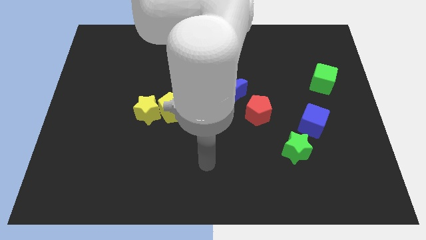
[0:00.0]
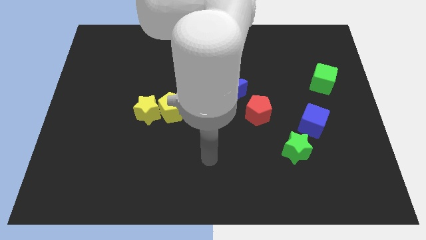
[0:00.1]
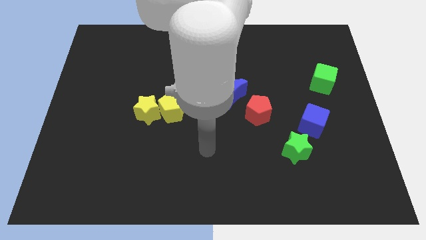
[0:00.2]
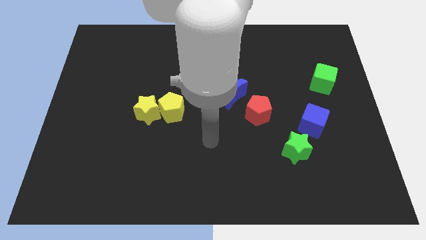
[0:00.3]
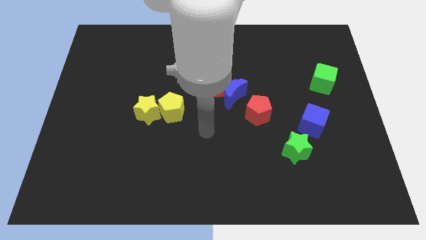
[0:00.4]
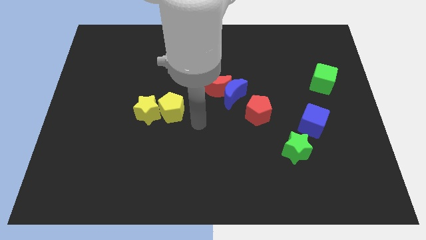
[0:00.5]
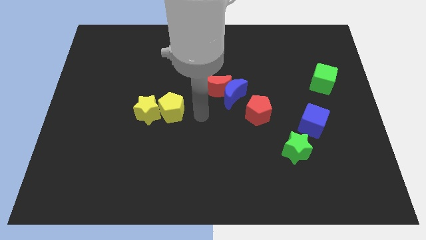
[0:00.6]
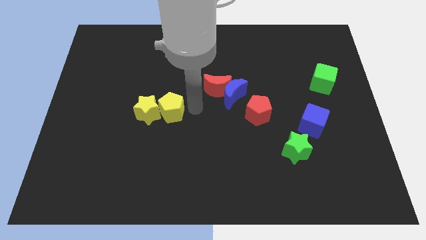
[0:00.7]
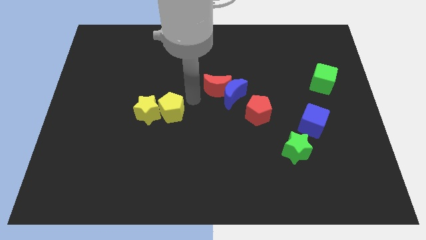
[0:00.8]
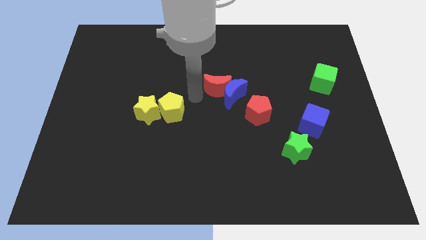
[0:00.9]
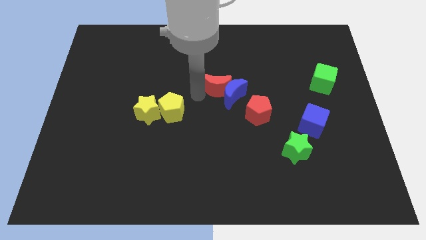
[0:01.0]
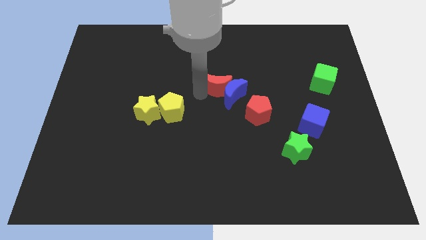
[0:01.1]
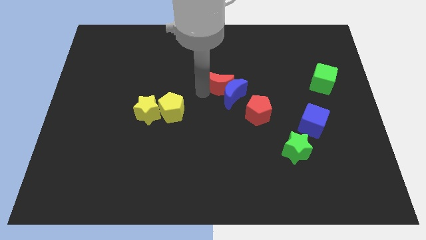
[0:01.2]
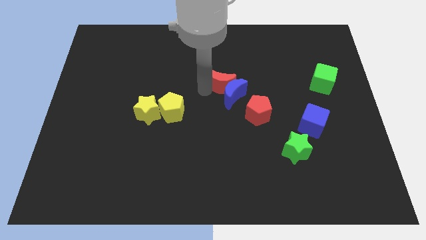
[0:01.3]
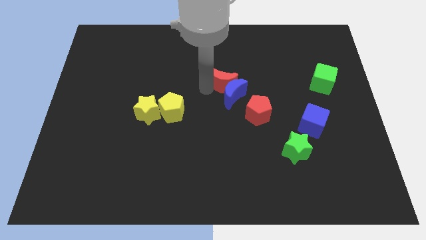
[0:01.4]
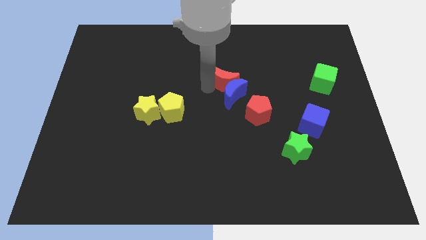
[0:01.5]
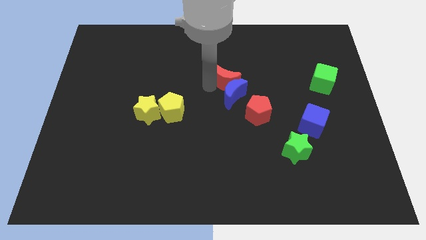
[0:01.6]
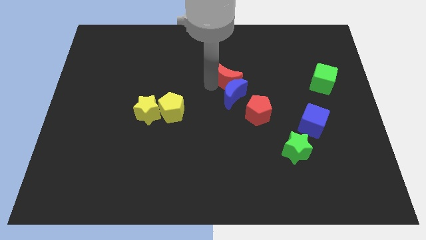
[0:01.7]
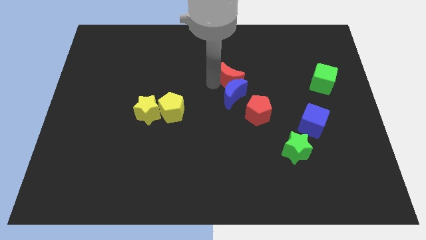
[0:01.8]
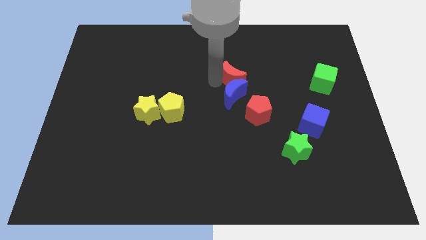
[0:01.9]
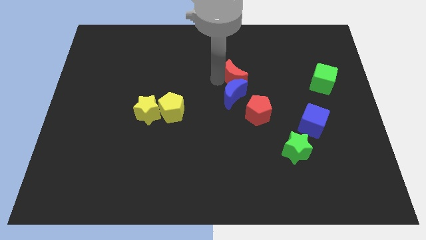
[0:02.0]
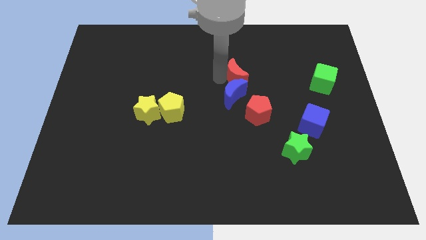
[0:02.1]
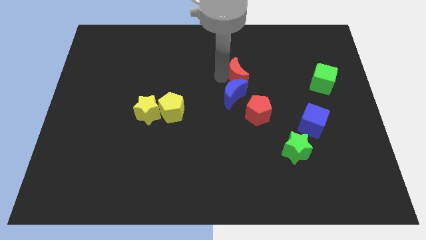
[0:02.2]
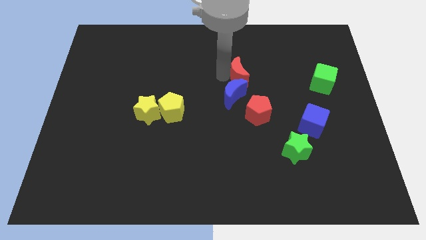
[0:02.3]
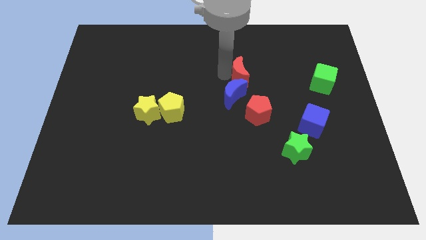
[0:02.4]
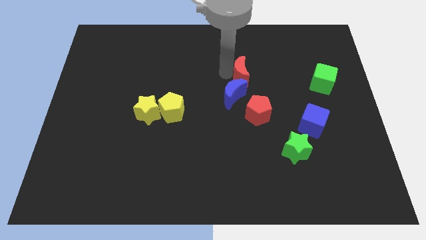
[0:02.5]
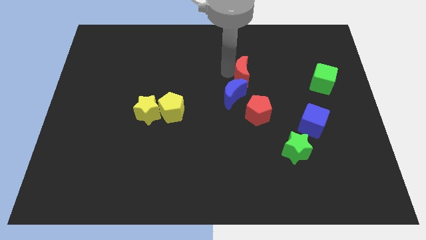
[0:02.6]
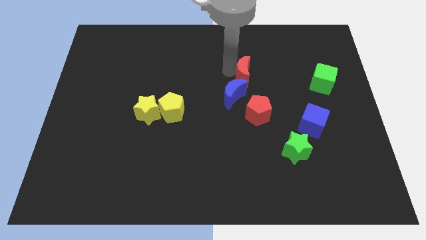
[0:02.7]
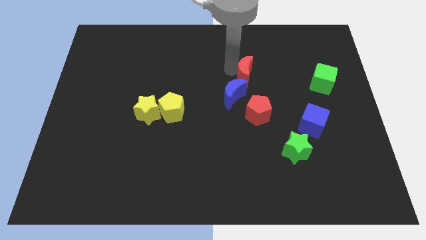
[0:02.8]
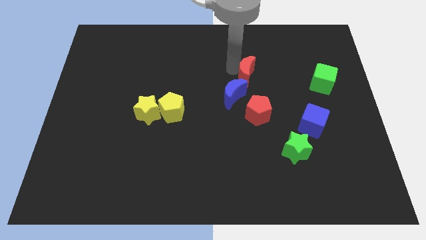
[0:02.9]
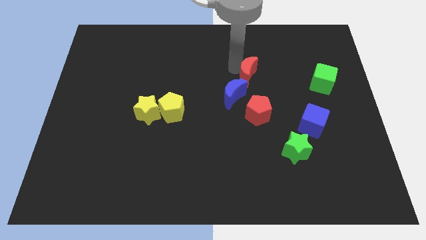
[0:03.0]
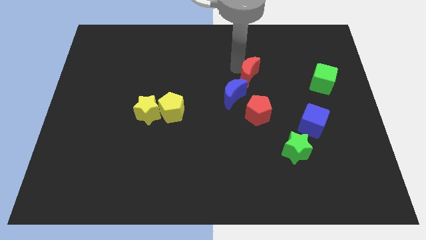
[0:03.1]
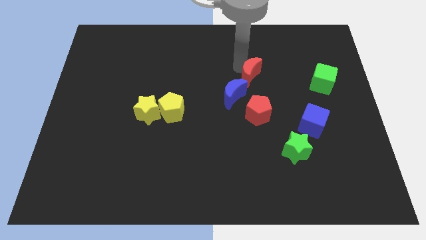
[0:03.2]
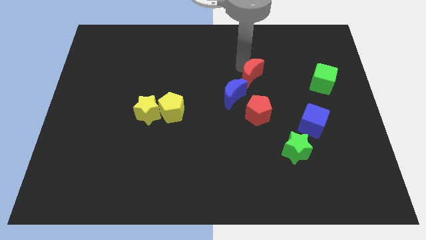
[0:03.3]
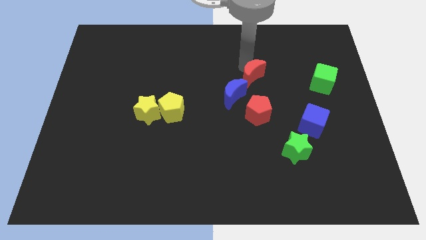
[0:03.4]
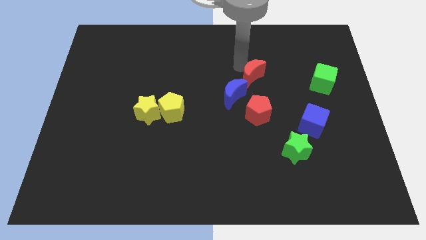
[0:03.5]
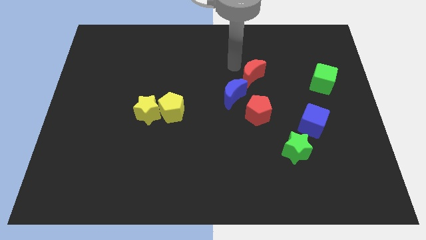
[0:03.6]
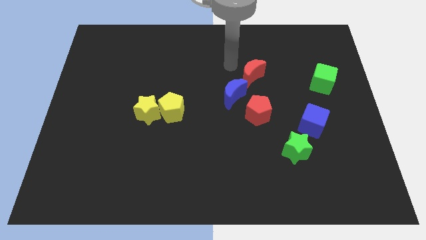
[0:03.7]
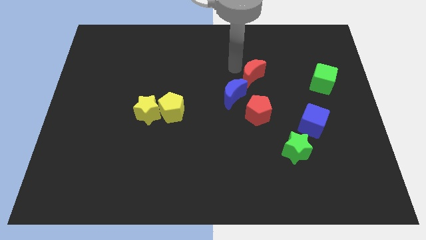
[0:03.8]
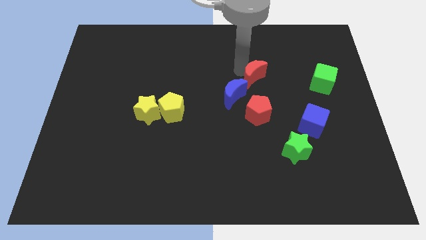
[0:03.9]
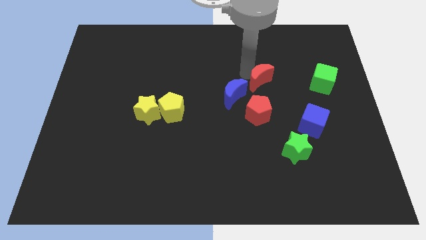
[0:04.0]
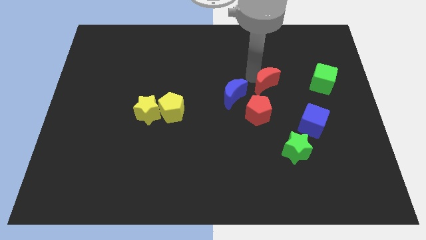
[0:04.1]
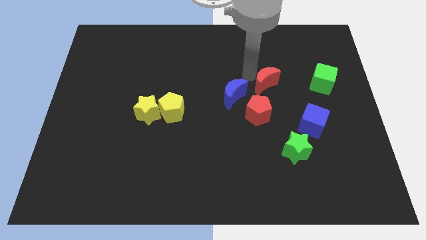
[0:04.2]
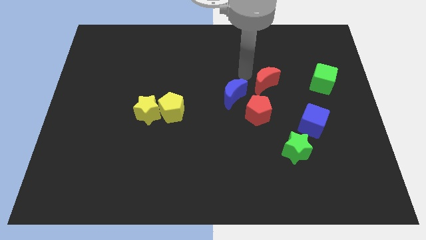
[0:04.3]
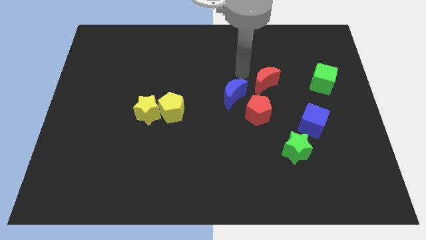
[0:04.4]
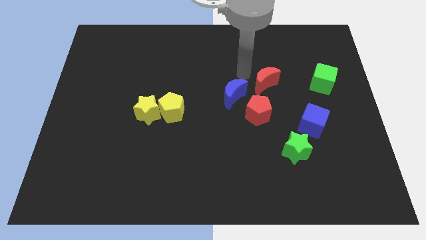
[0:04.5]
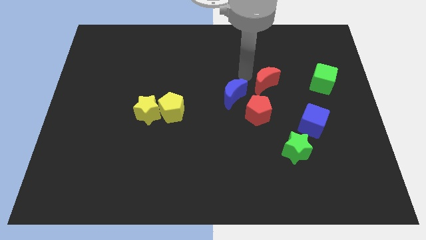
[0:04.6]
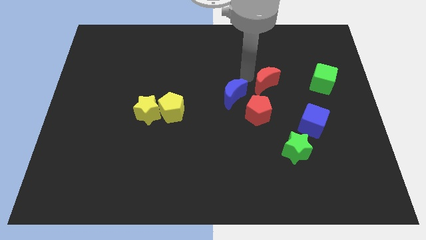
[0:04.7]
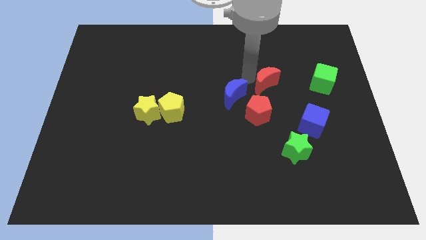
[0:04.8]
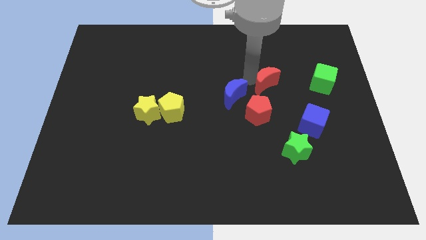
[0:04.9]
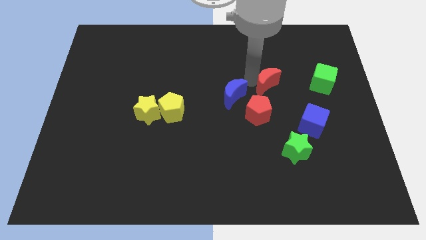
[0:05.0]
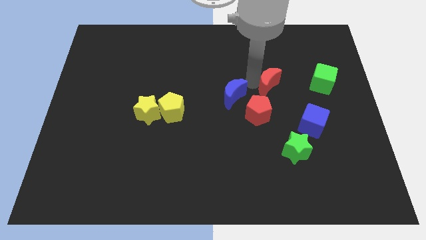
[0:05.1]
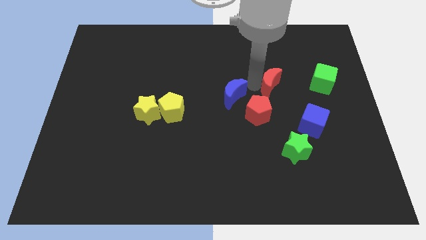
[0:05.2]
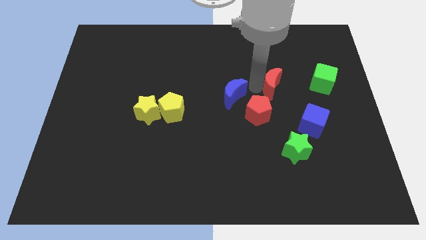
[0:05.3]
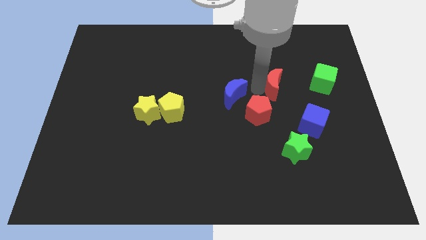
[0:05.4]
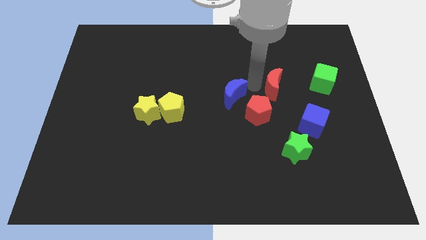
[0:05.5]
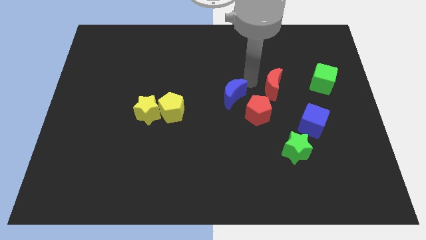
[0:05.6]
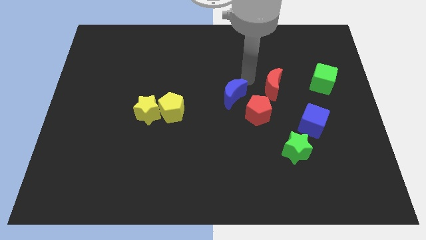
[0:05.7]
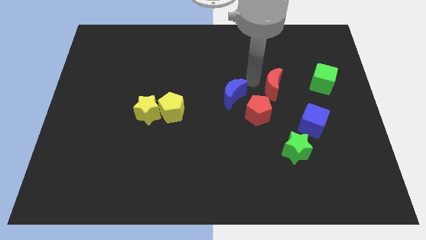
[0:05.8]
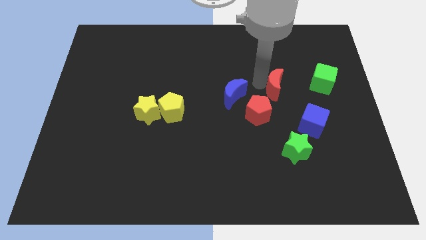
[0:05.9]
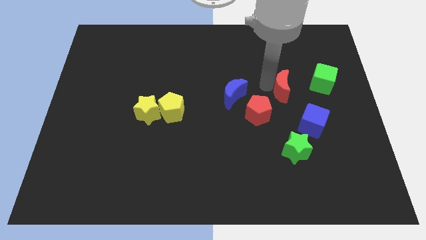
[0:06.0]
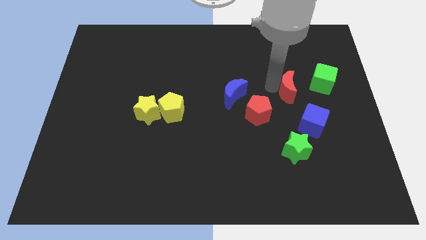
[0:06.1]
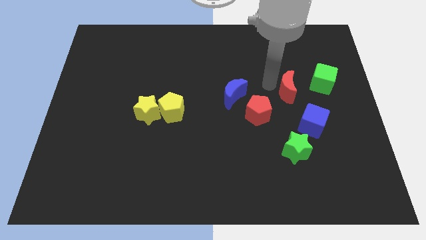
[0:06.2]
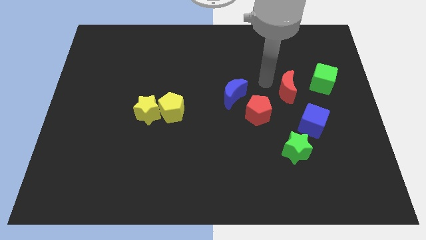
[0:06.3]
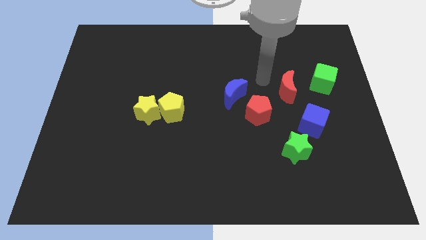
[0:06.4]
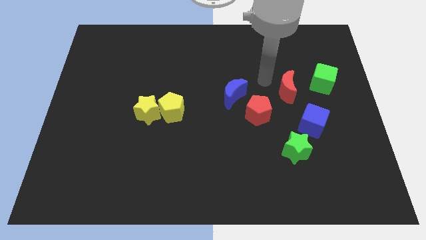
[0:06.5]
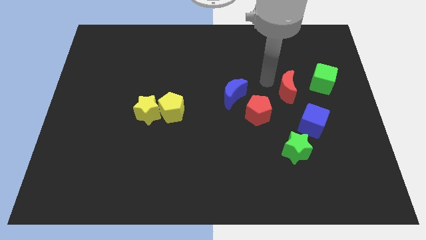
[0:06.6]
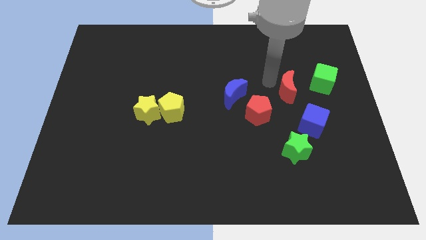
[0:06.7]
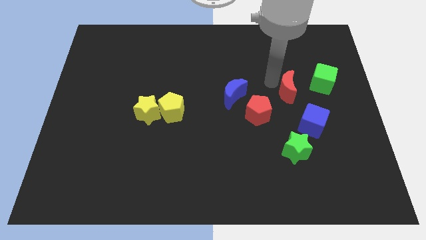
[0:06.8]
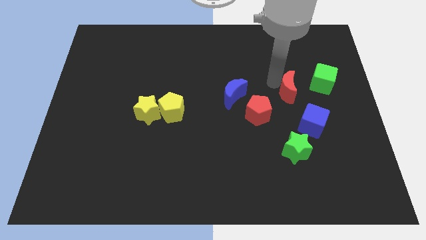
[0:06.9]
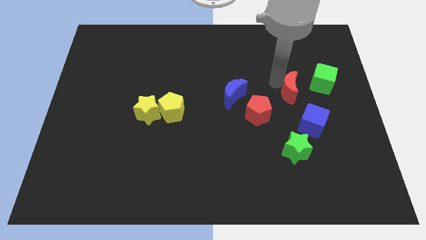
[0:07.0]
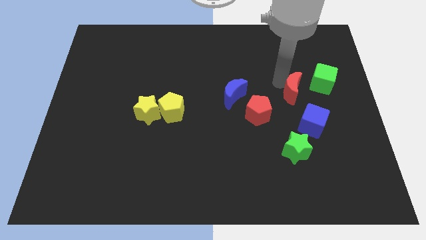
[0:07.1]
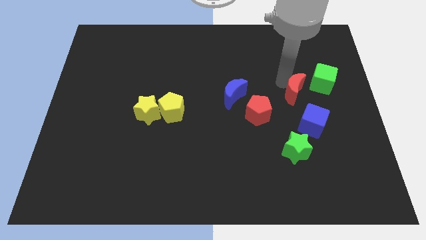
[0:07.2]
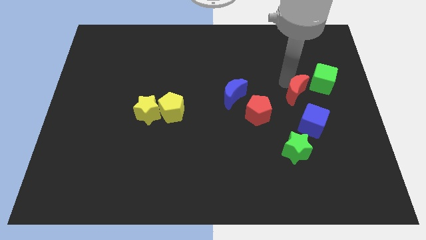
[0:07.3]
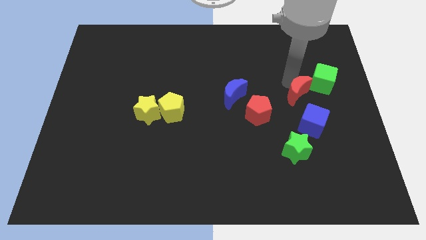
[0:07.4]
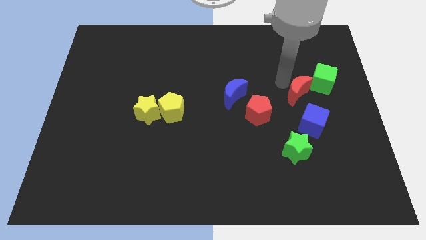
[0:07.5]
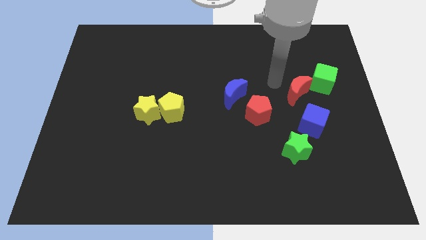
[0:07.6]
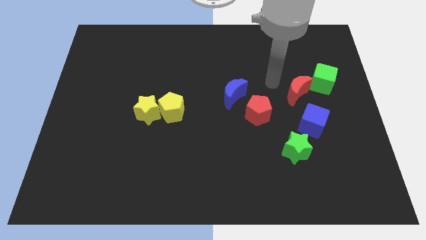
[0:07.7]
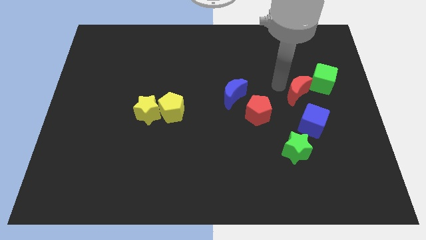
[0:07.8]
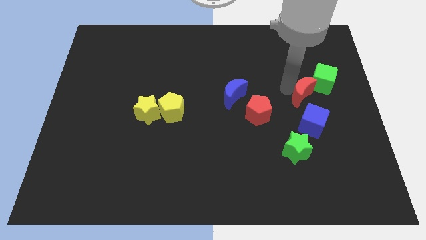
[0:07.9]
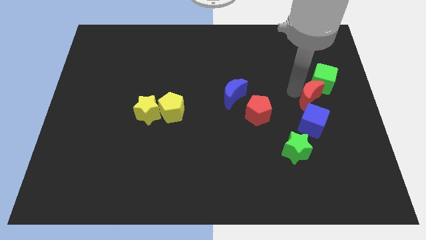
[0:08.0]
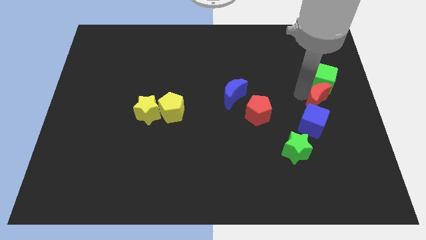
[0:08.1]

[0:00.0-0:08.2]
push the red moon to the top right side of the blue cube

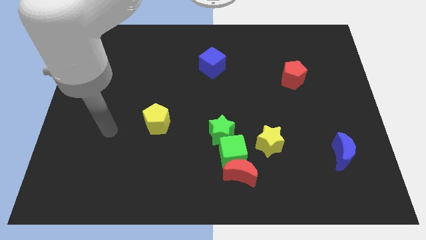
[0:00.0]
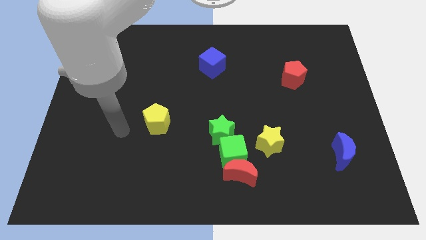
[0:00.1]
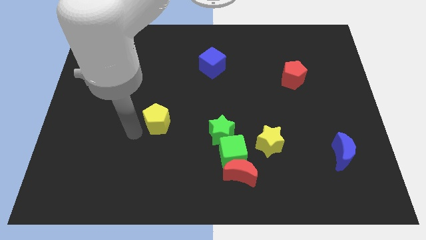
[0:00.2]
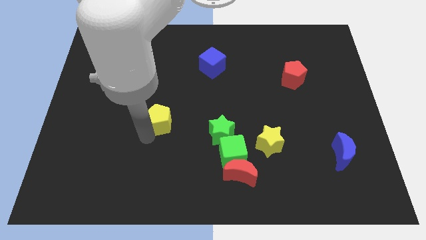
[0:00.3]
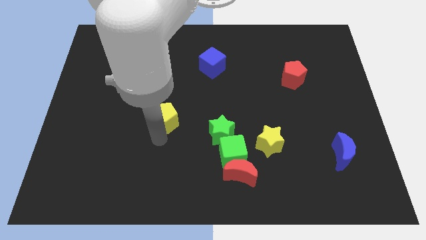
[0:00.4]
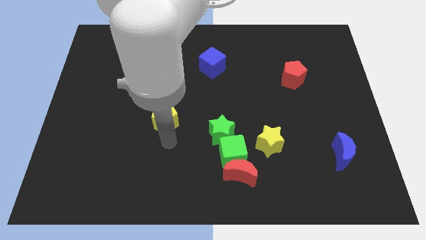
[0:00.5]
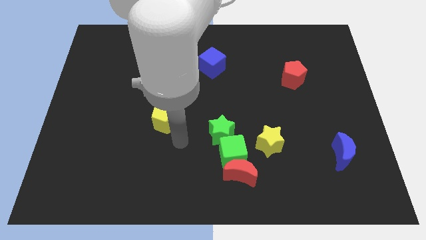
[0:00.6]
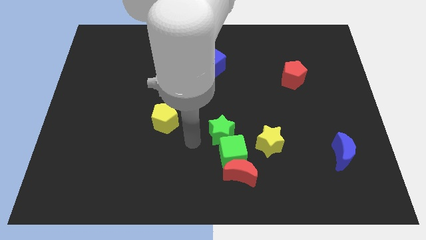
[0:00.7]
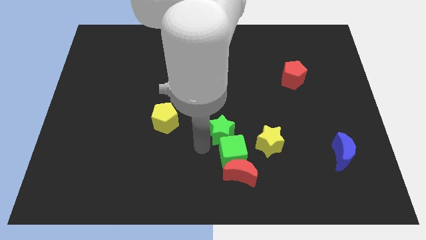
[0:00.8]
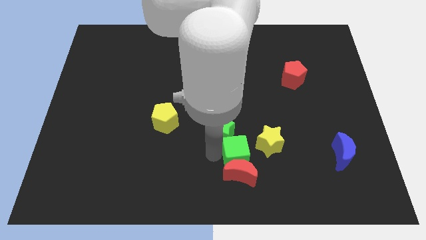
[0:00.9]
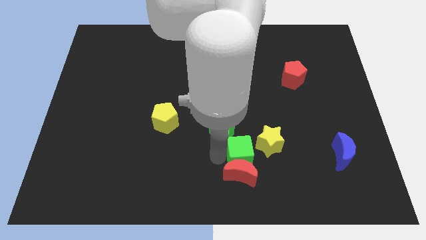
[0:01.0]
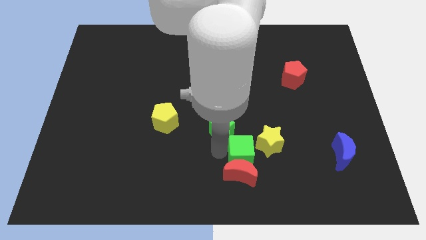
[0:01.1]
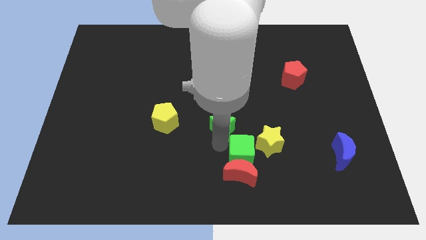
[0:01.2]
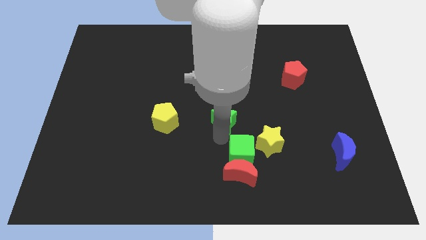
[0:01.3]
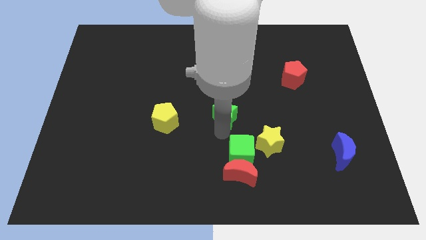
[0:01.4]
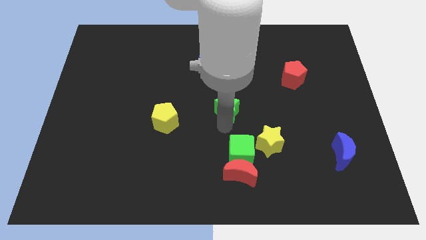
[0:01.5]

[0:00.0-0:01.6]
push the green star to the bottom of the blue cube
